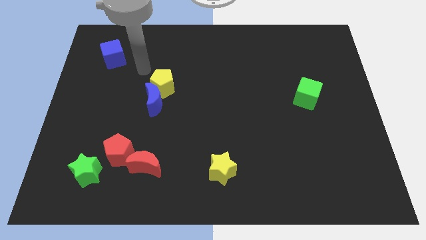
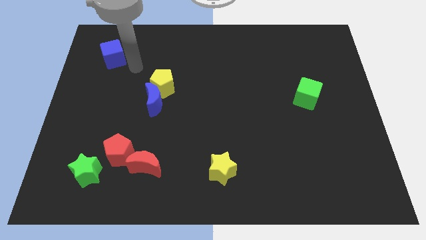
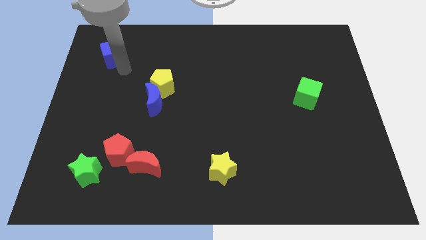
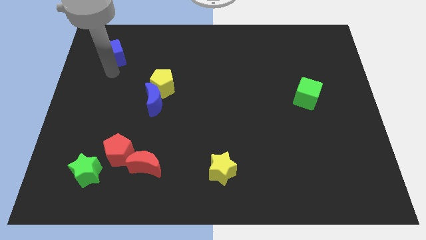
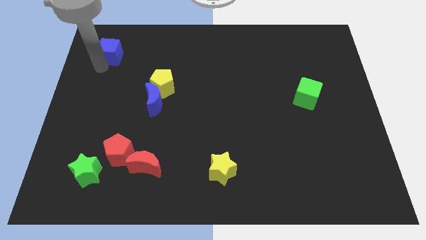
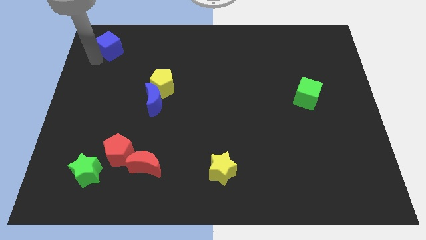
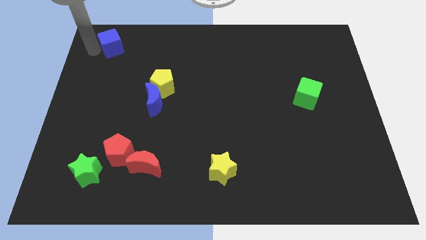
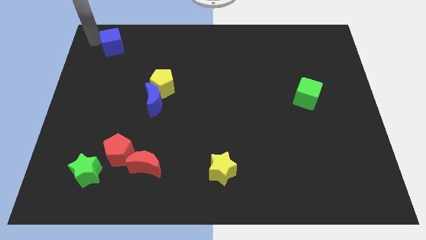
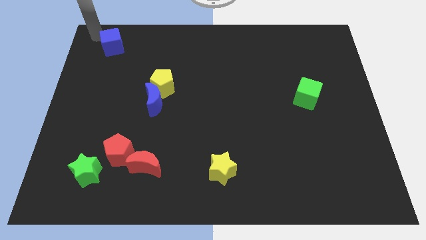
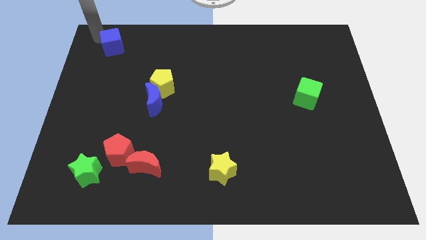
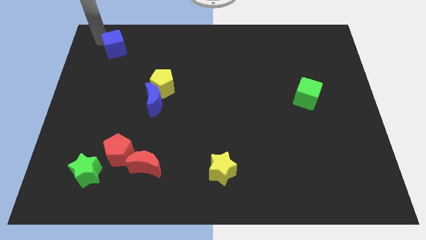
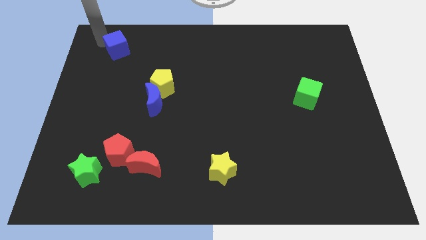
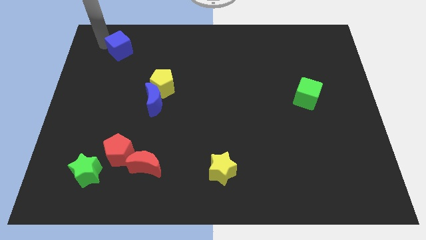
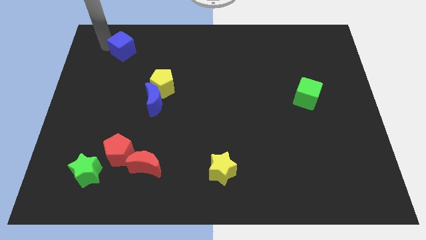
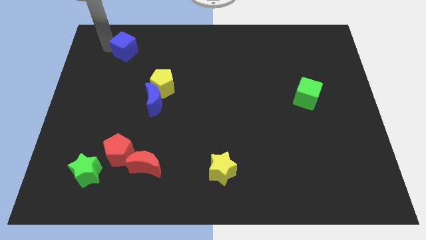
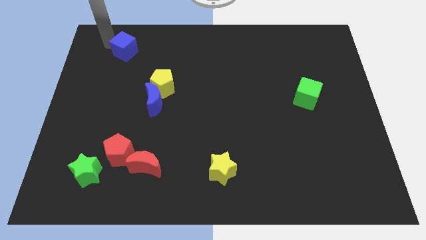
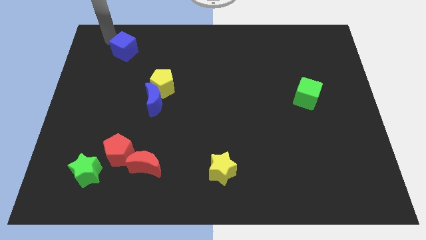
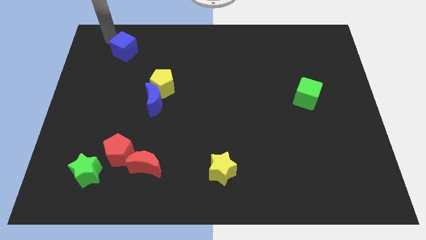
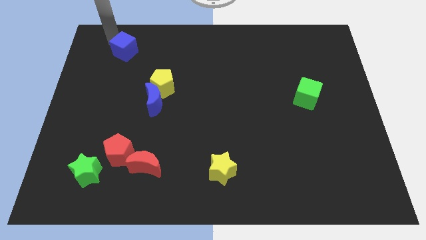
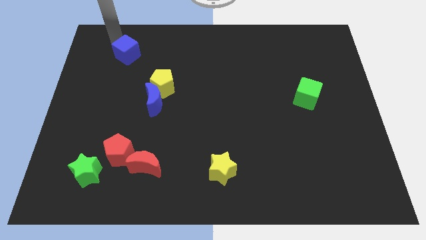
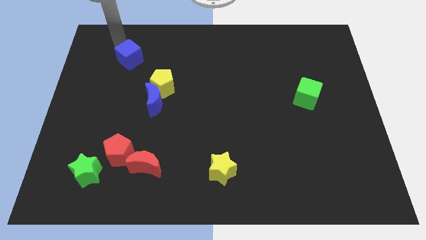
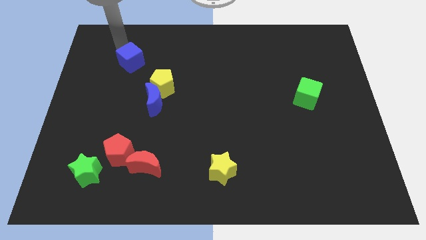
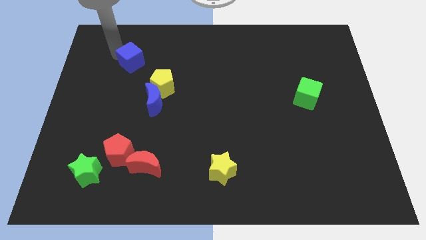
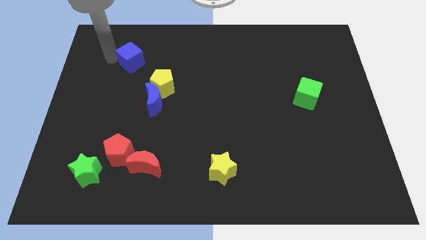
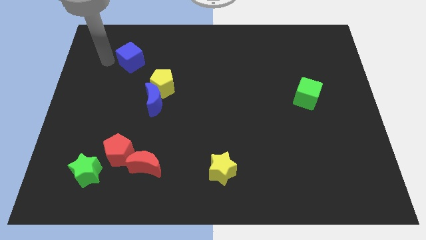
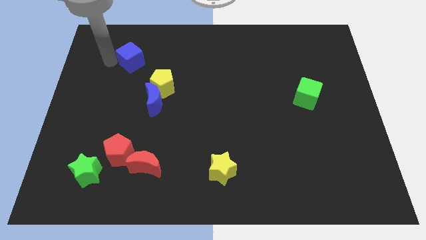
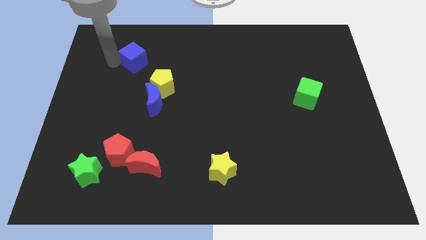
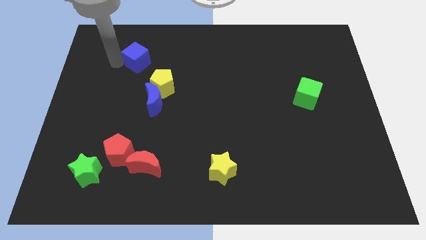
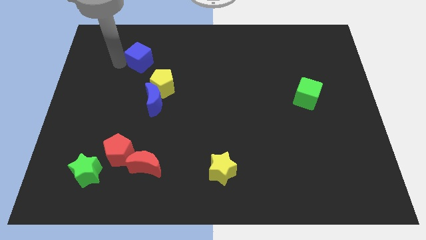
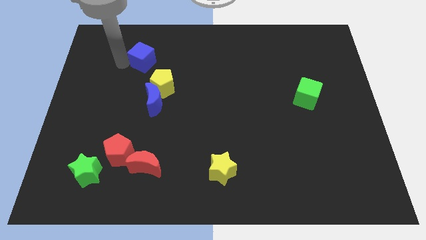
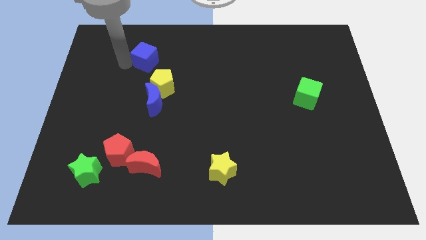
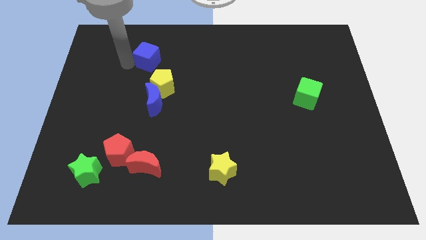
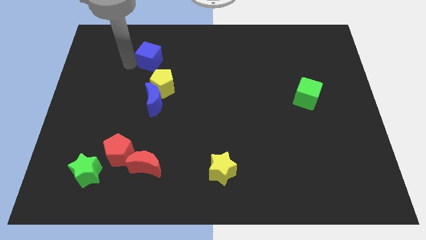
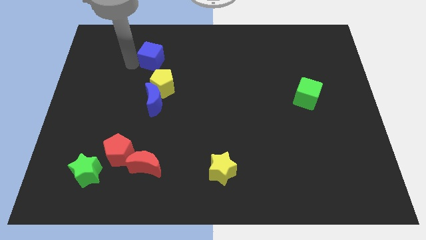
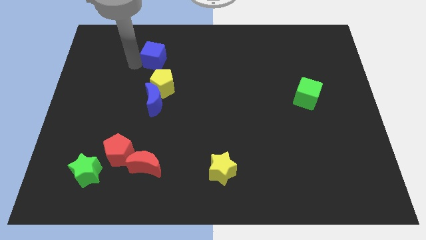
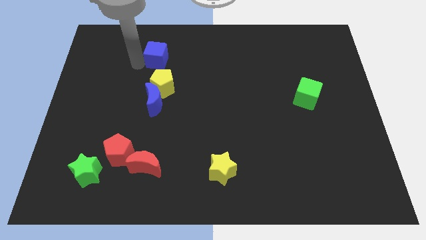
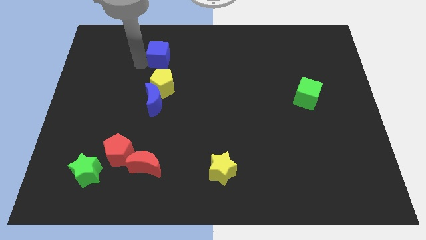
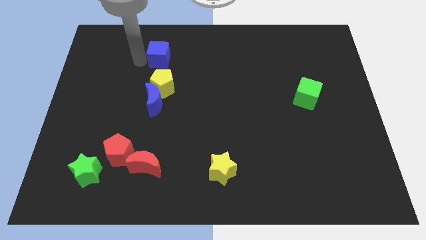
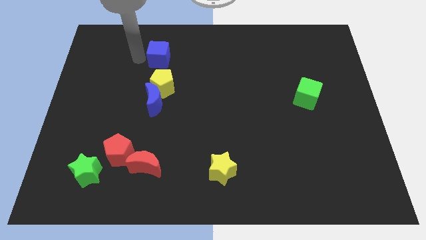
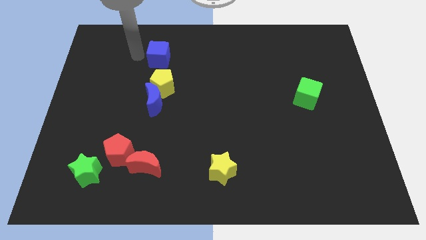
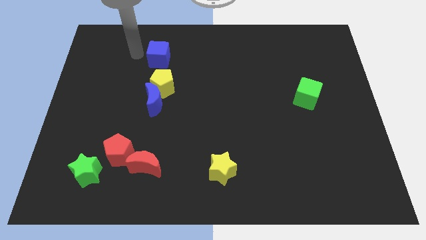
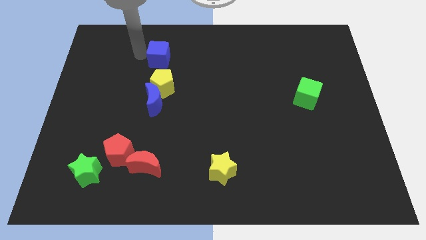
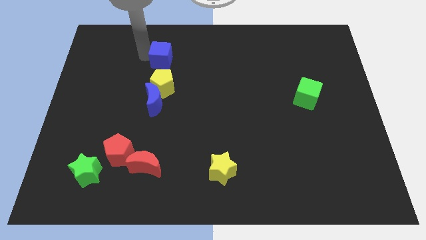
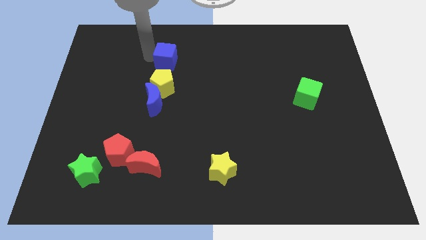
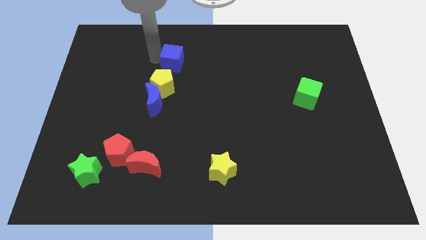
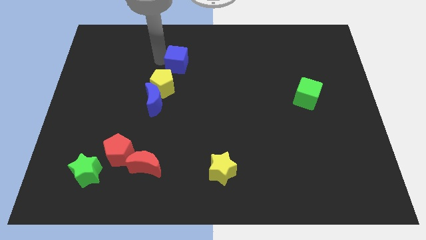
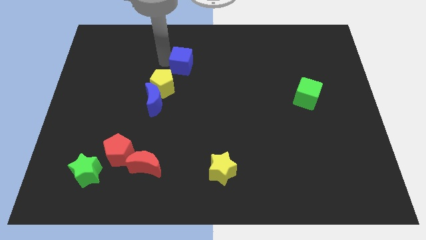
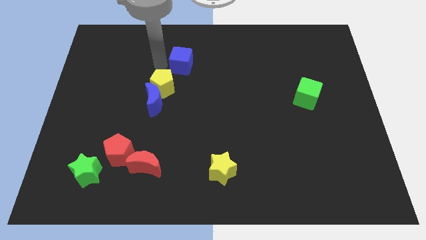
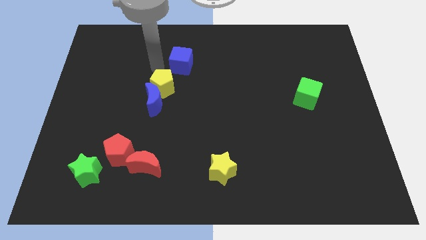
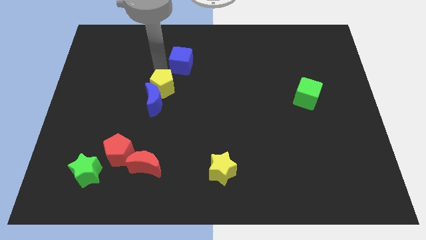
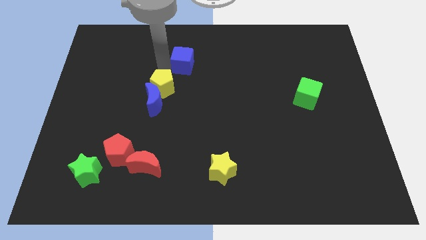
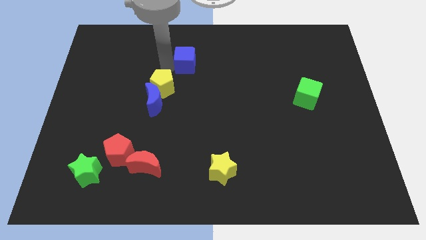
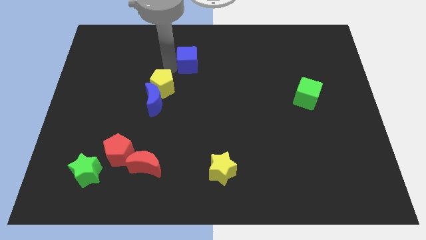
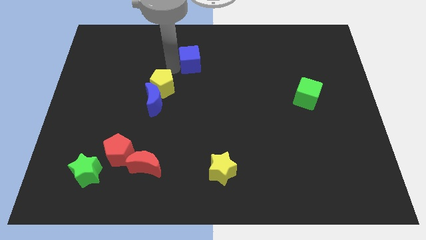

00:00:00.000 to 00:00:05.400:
move the blue cube to the right

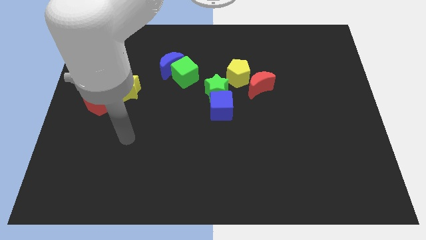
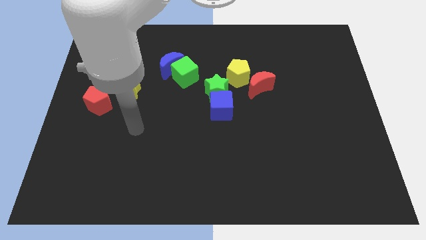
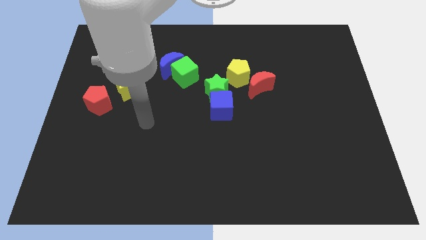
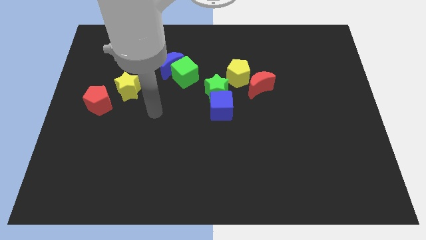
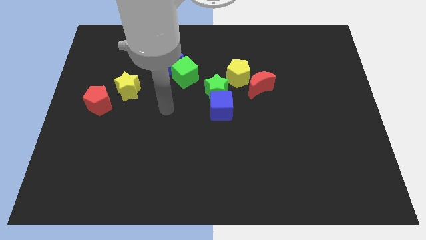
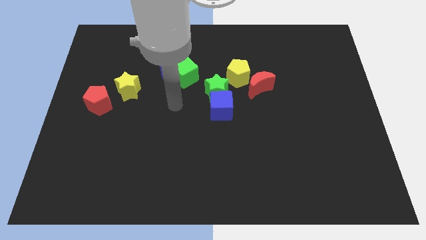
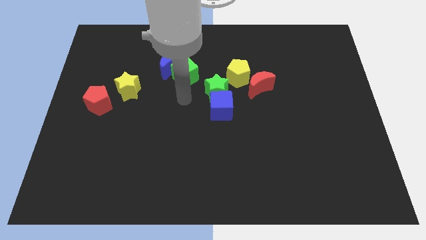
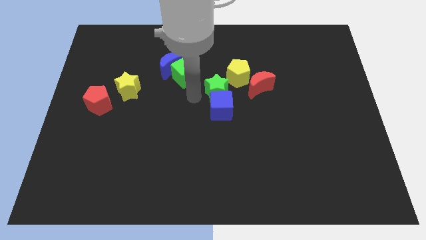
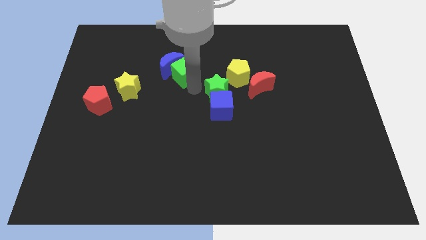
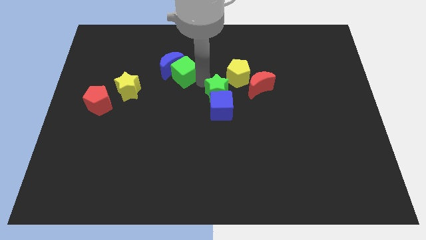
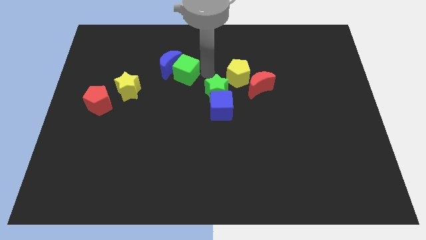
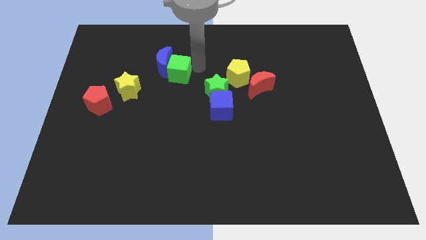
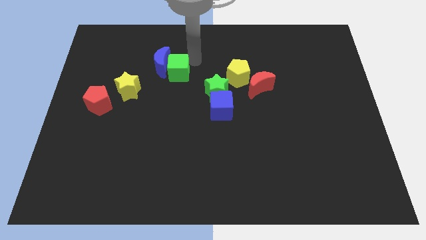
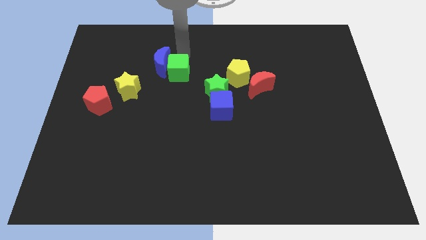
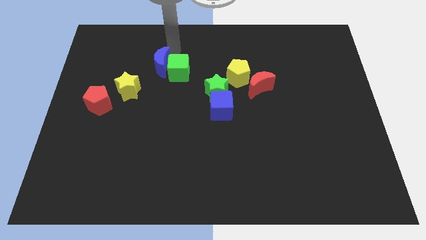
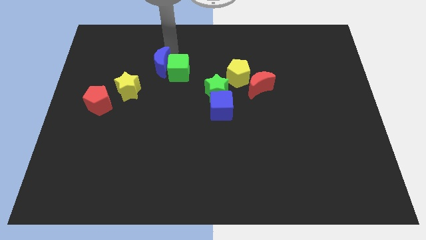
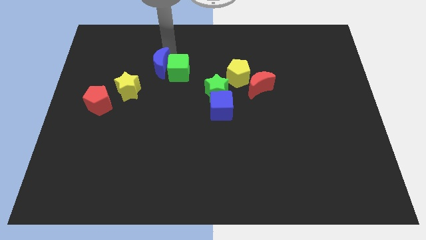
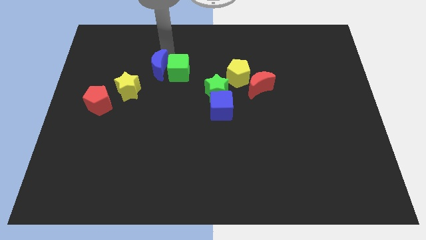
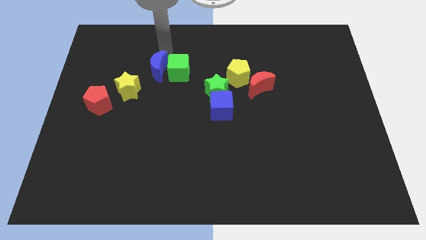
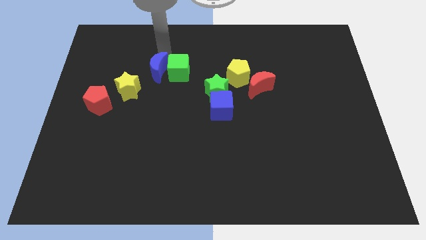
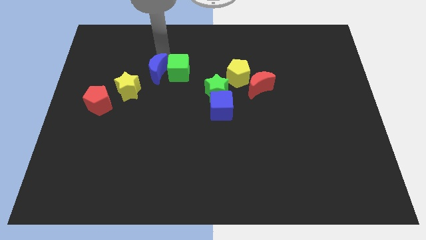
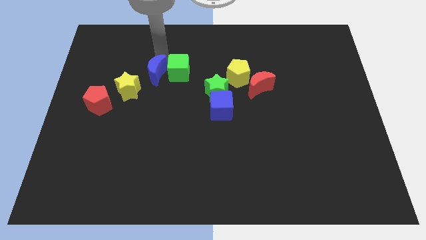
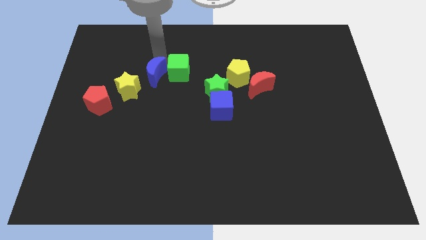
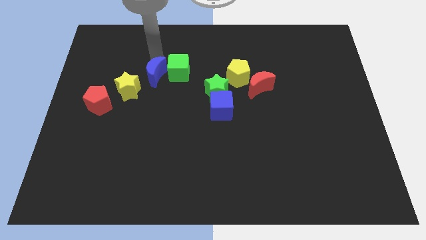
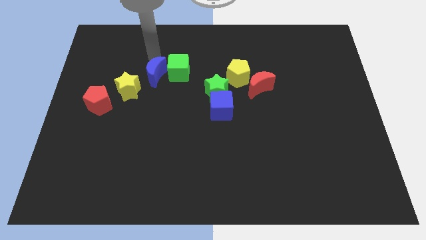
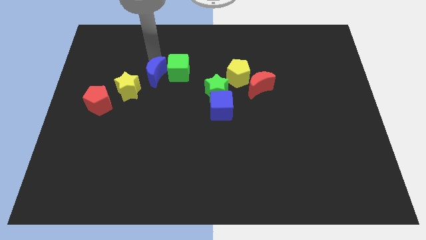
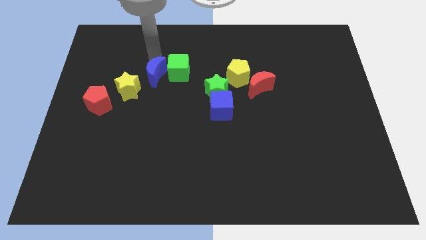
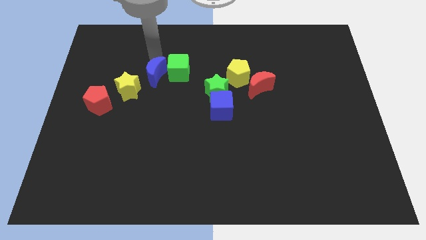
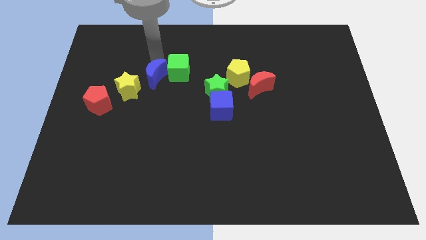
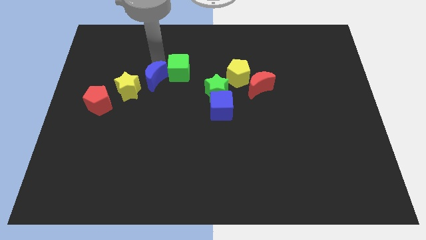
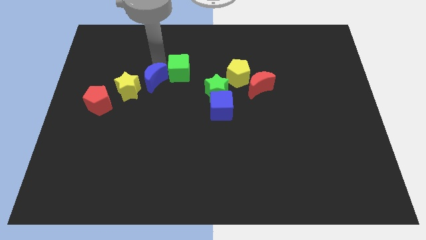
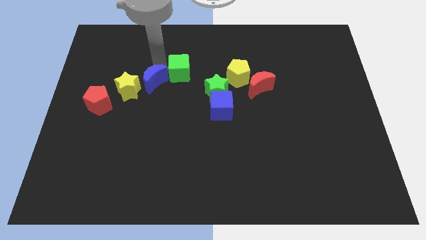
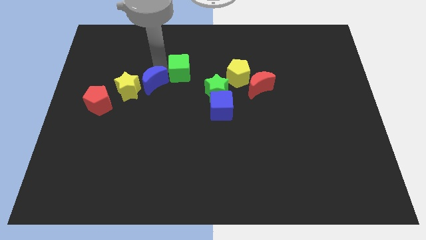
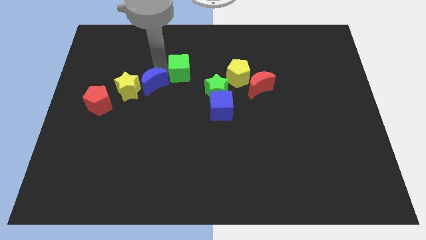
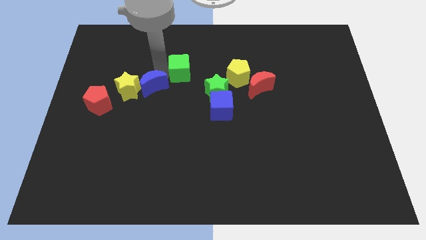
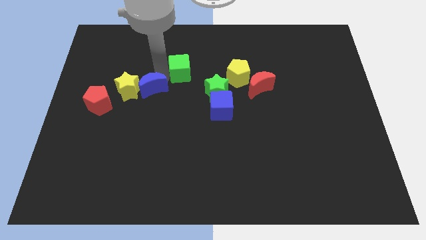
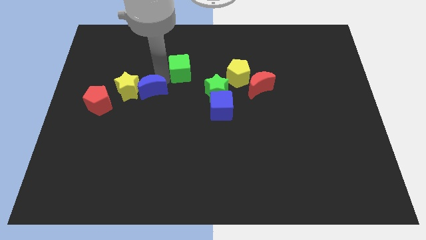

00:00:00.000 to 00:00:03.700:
slide the blue moon down a little bit
